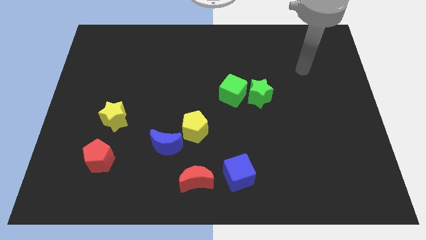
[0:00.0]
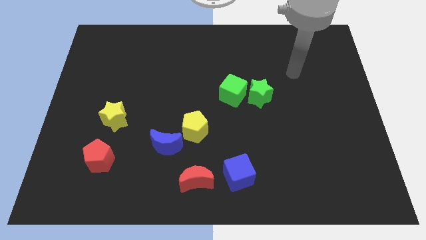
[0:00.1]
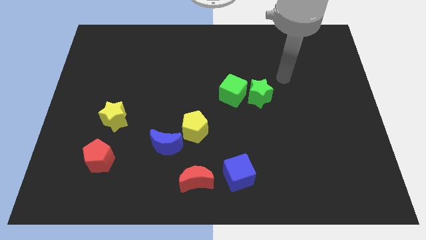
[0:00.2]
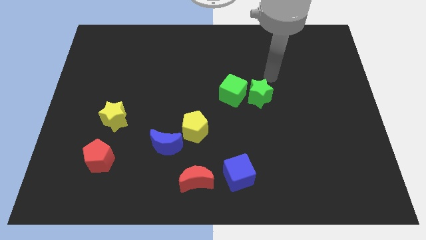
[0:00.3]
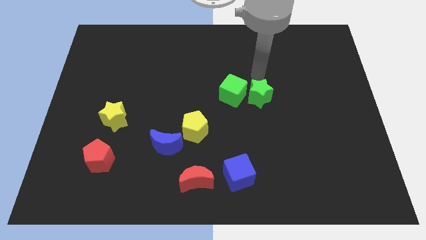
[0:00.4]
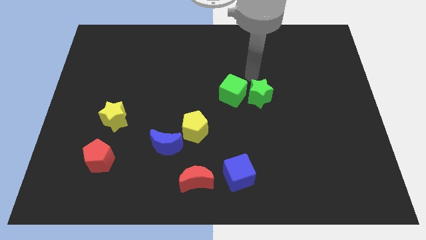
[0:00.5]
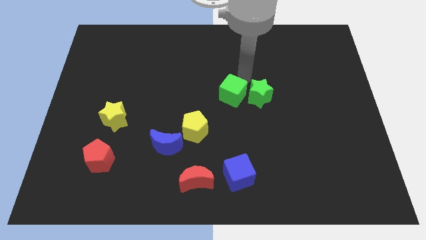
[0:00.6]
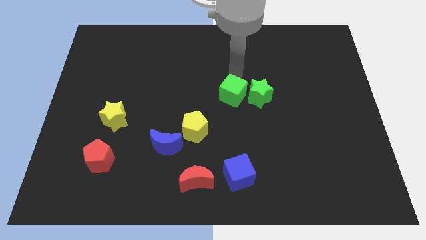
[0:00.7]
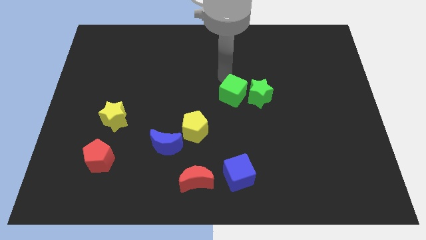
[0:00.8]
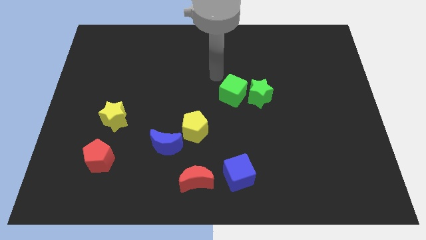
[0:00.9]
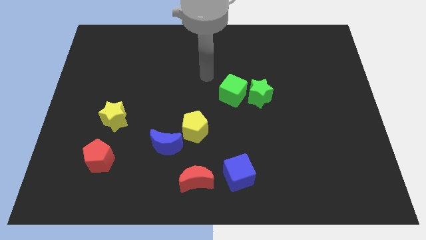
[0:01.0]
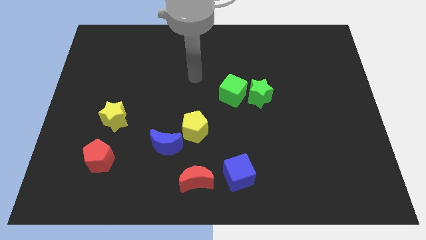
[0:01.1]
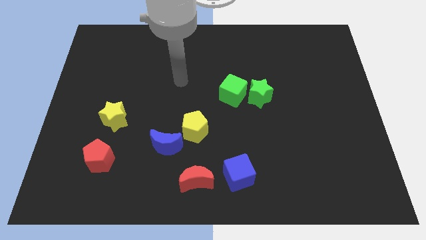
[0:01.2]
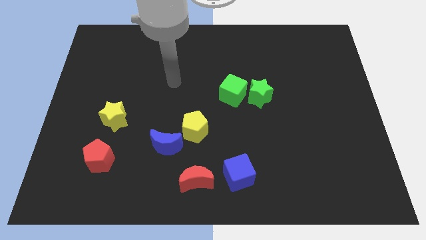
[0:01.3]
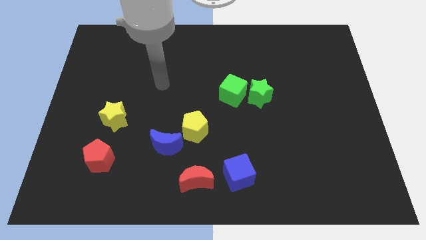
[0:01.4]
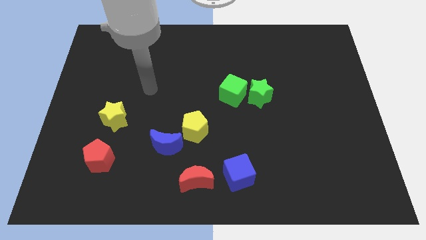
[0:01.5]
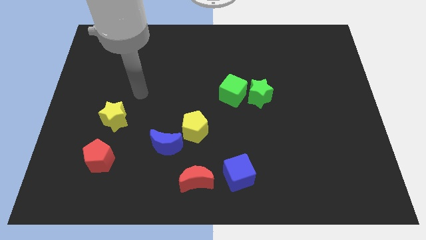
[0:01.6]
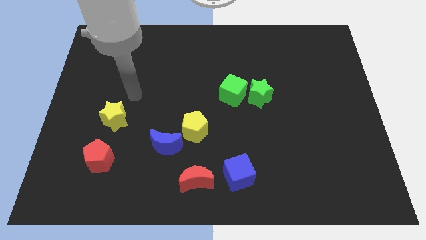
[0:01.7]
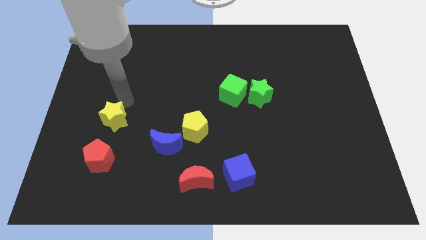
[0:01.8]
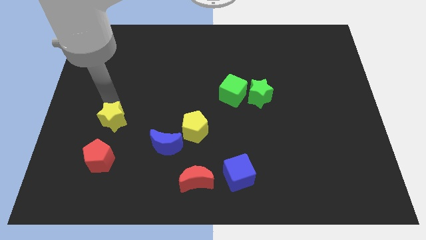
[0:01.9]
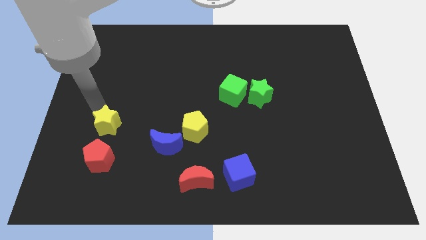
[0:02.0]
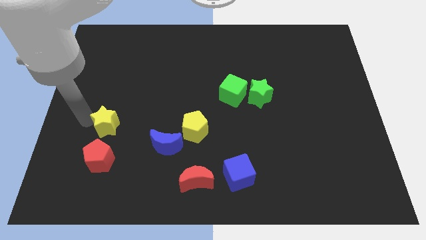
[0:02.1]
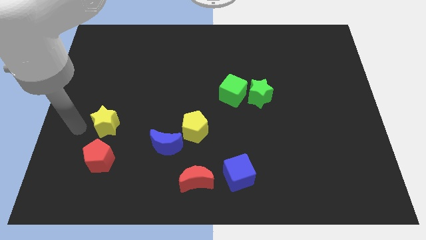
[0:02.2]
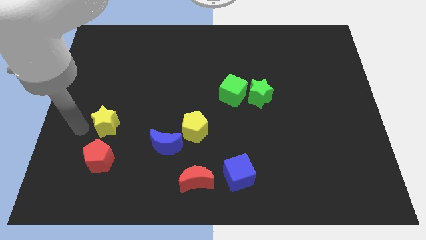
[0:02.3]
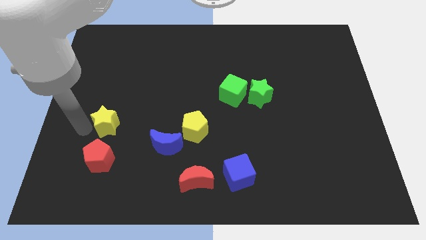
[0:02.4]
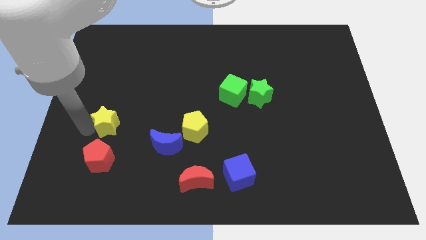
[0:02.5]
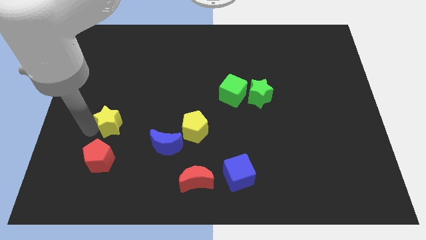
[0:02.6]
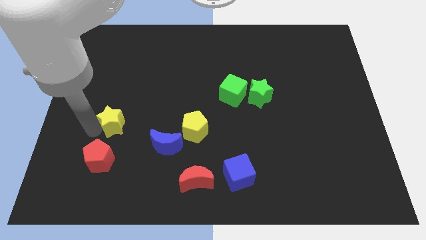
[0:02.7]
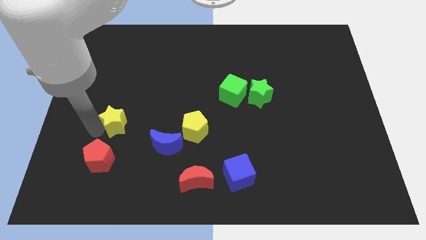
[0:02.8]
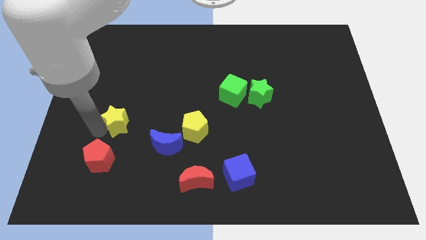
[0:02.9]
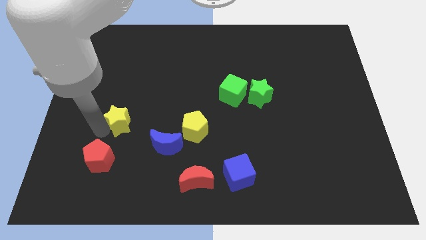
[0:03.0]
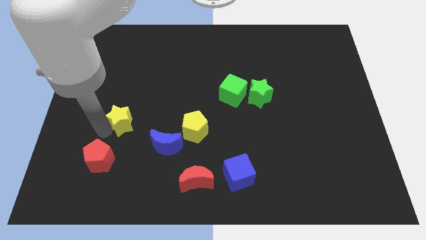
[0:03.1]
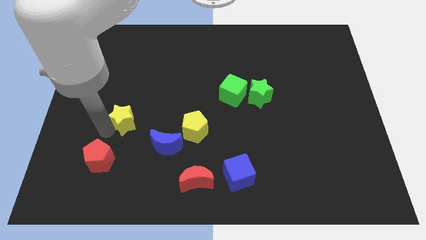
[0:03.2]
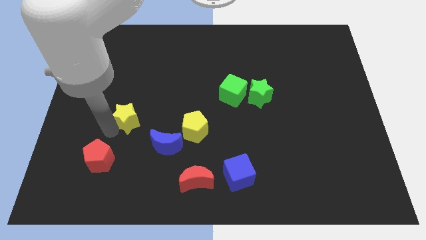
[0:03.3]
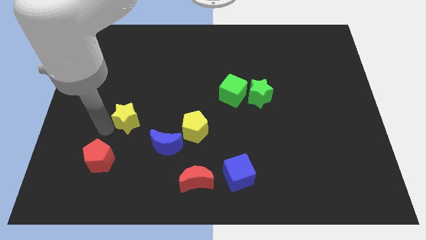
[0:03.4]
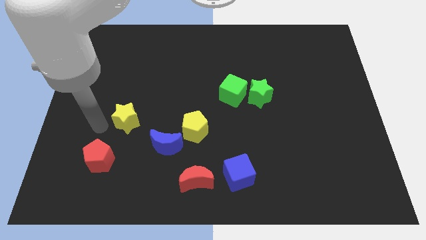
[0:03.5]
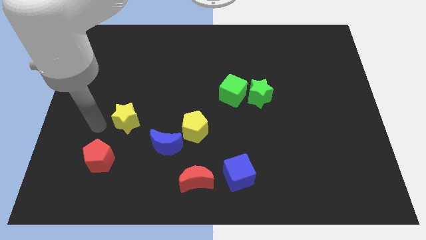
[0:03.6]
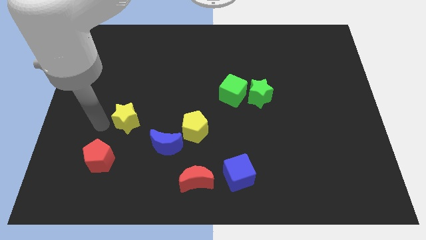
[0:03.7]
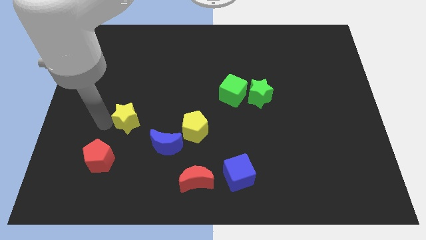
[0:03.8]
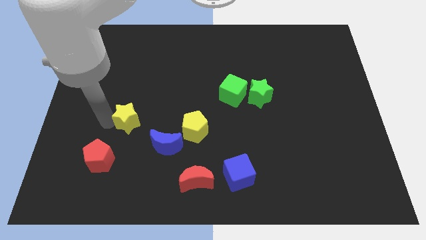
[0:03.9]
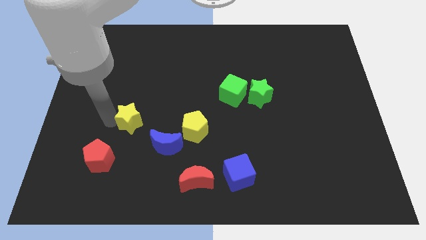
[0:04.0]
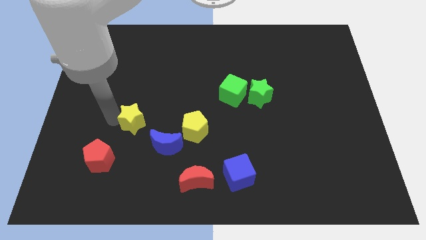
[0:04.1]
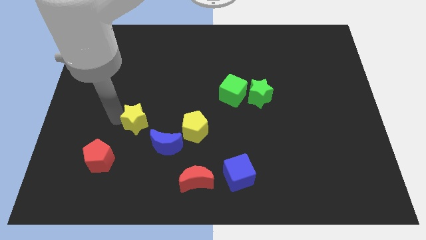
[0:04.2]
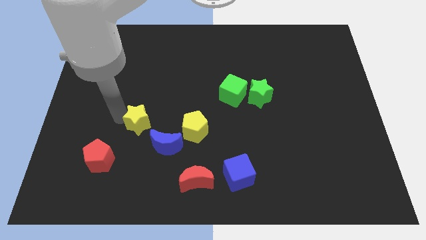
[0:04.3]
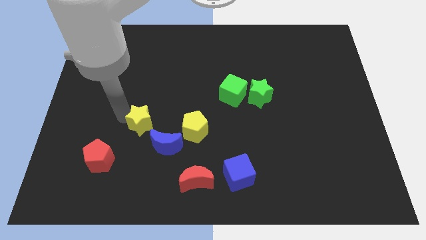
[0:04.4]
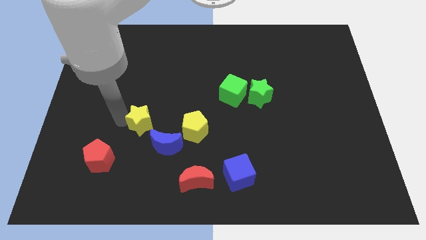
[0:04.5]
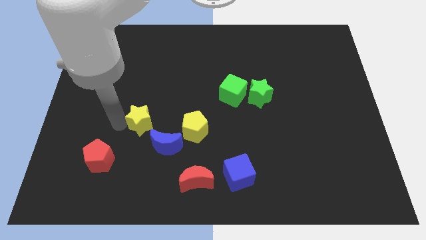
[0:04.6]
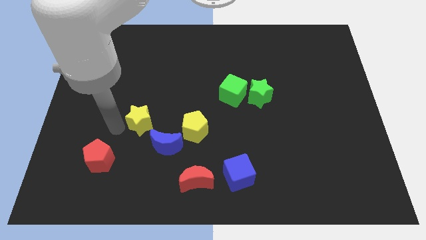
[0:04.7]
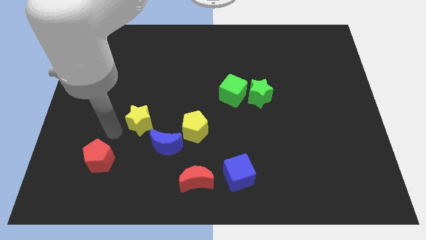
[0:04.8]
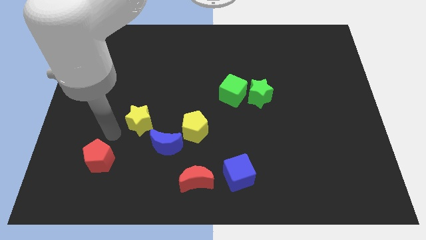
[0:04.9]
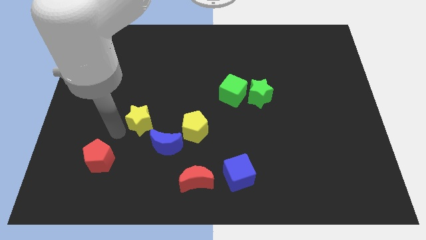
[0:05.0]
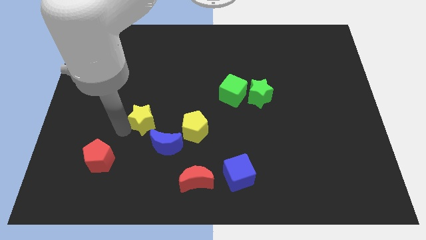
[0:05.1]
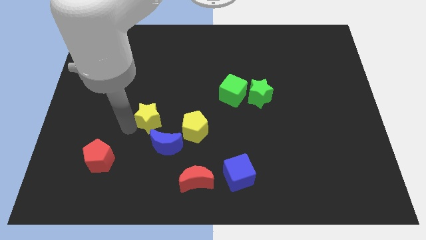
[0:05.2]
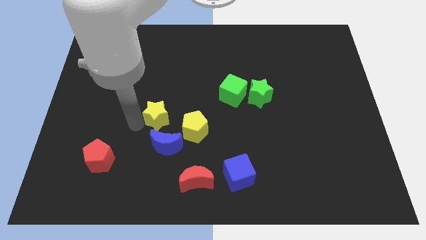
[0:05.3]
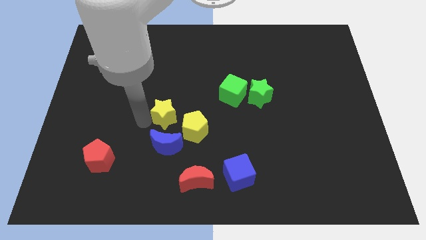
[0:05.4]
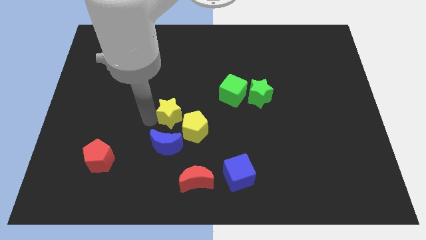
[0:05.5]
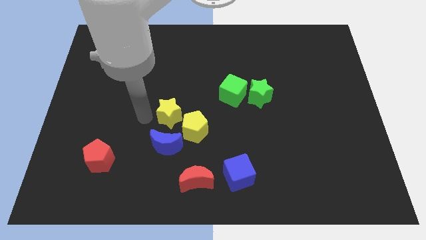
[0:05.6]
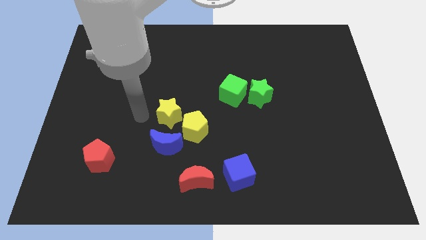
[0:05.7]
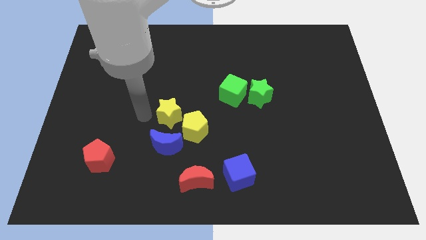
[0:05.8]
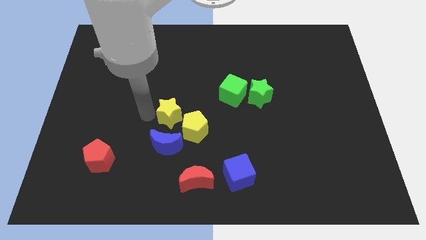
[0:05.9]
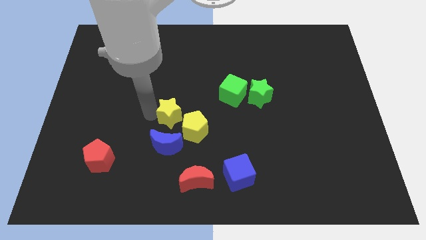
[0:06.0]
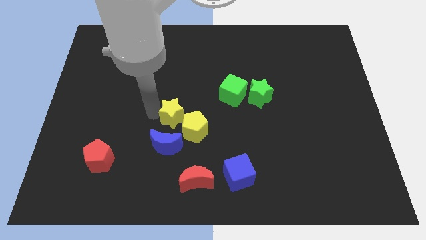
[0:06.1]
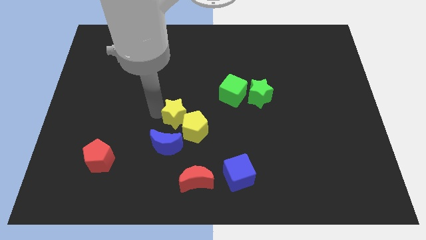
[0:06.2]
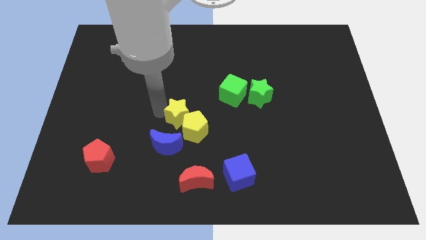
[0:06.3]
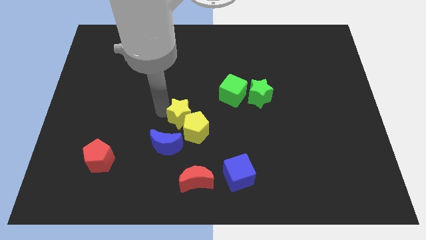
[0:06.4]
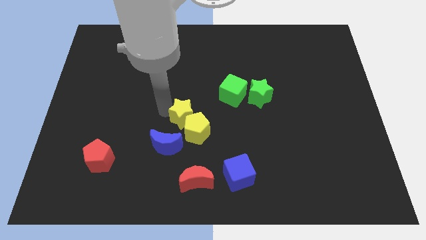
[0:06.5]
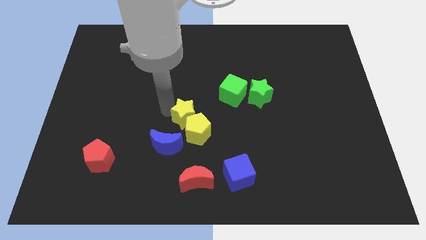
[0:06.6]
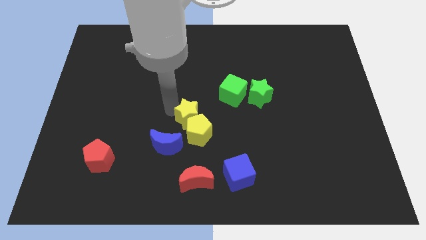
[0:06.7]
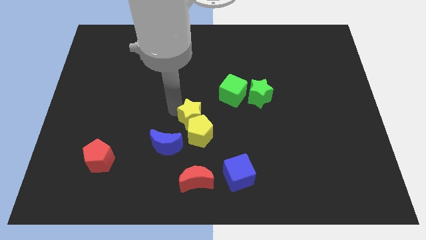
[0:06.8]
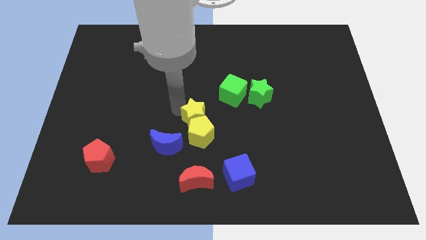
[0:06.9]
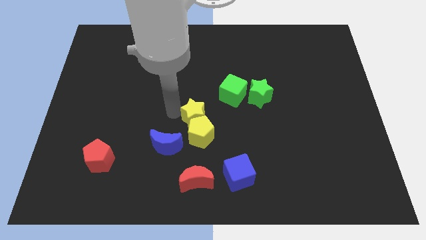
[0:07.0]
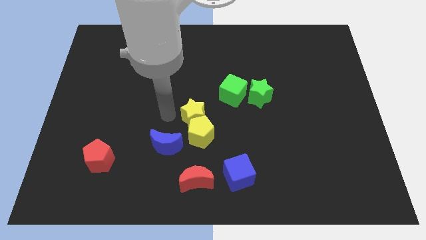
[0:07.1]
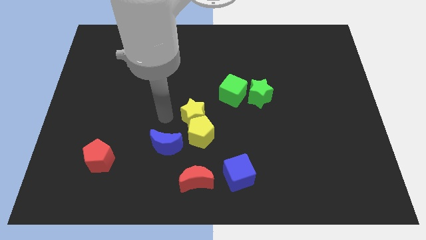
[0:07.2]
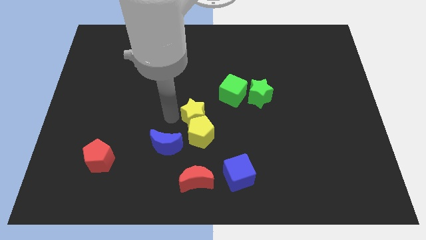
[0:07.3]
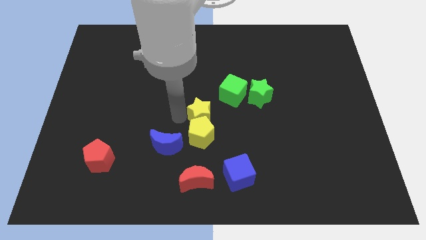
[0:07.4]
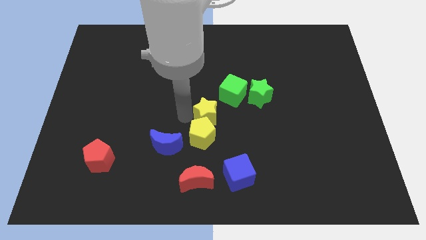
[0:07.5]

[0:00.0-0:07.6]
push the yellow star to the right

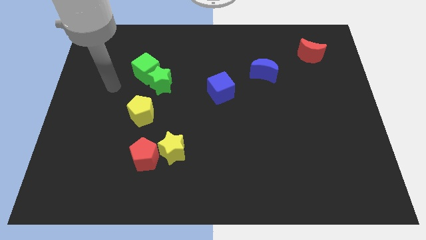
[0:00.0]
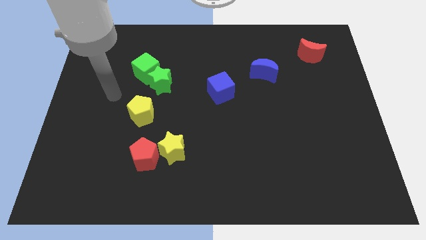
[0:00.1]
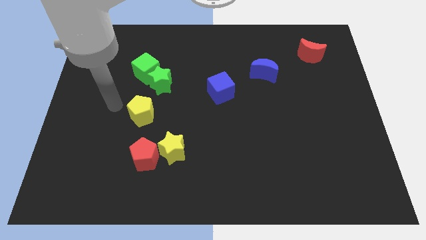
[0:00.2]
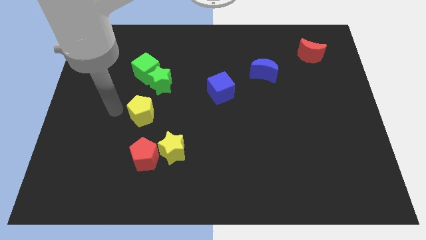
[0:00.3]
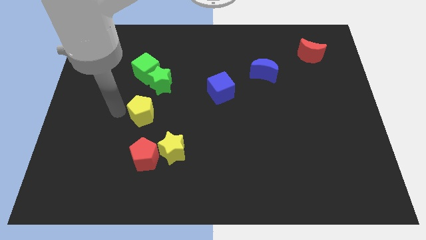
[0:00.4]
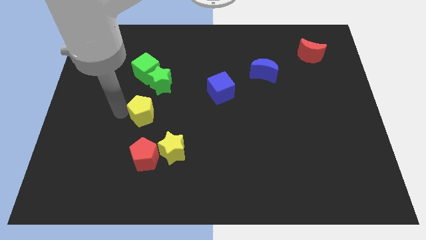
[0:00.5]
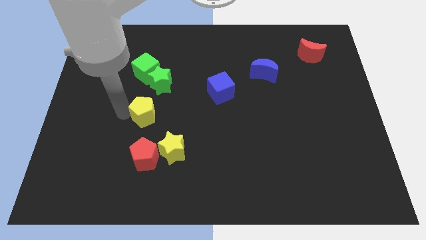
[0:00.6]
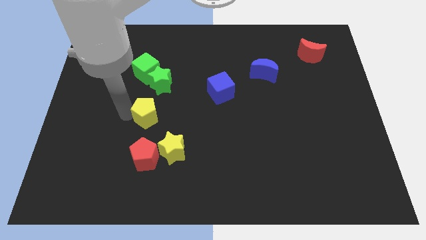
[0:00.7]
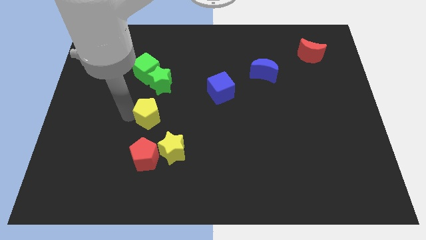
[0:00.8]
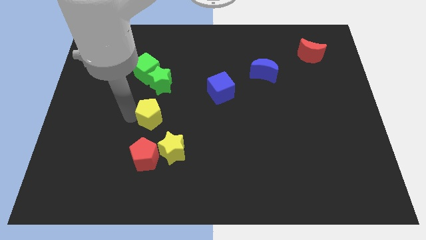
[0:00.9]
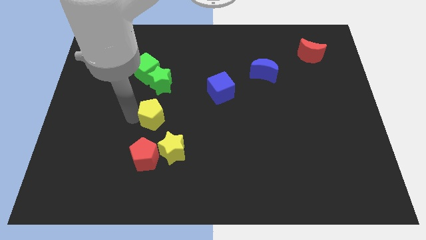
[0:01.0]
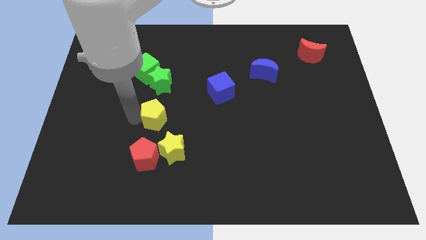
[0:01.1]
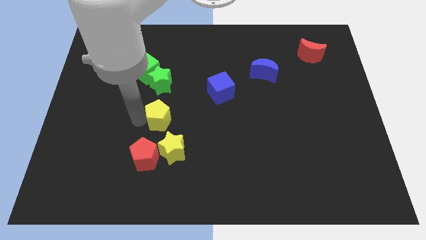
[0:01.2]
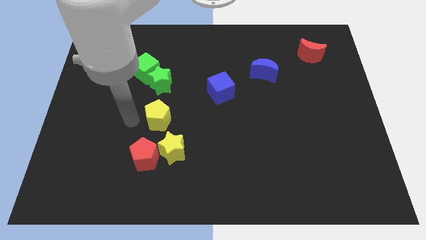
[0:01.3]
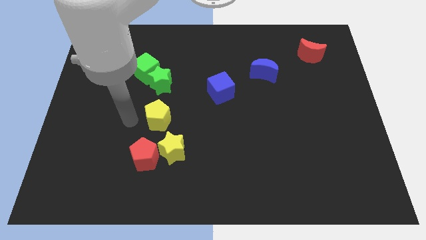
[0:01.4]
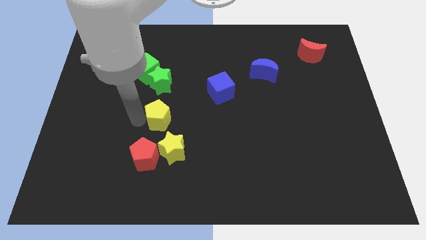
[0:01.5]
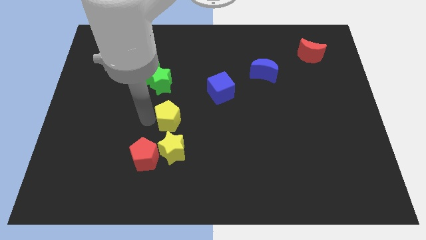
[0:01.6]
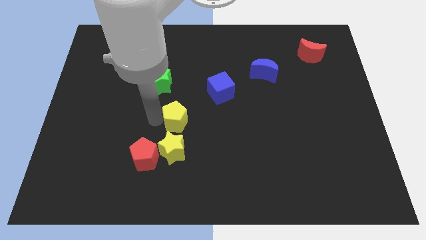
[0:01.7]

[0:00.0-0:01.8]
move the yellow pentagon a little bit right
